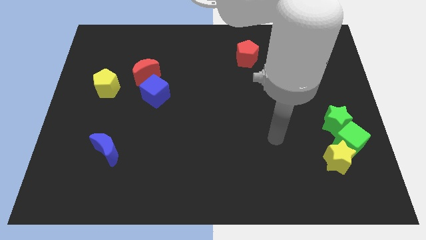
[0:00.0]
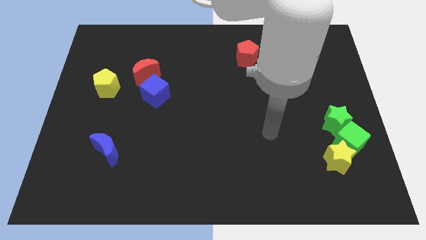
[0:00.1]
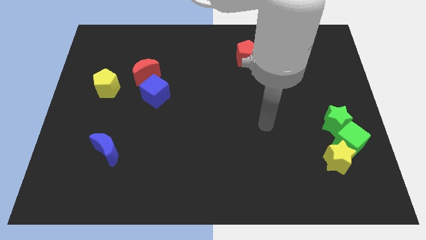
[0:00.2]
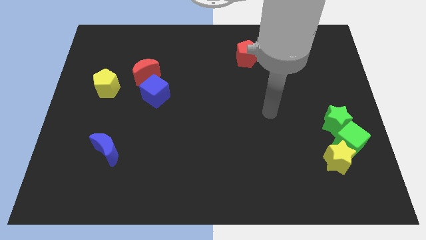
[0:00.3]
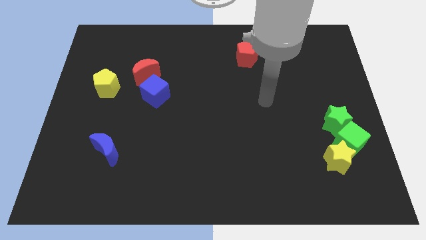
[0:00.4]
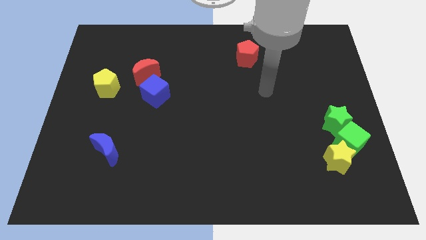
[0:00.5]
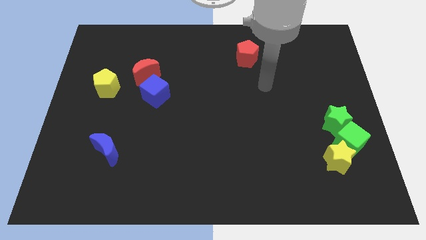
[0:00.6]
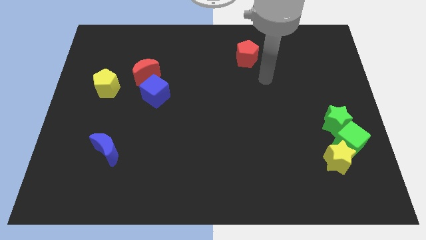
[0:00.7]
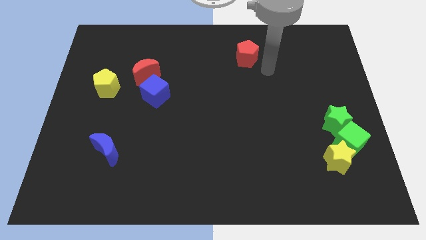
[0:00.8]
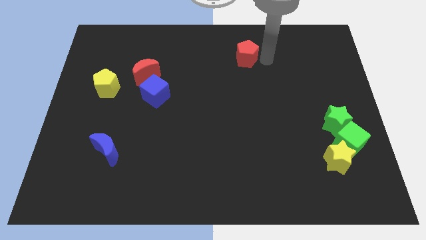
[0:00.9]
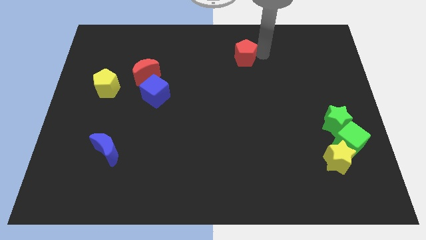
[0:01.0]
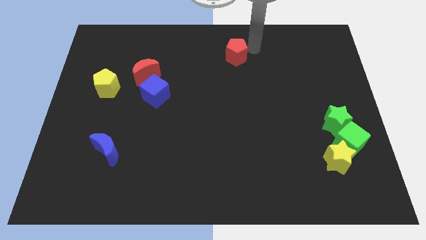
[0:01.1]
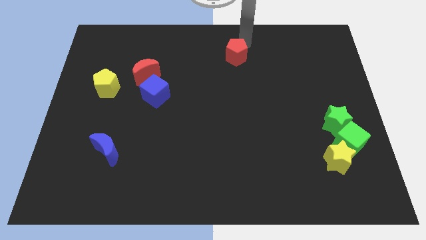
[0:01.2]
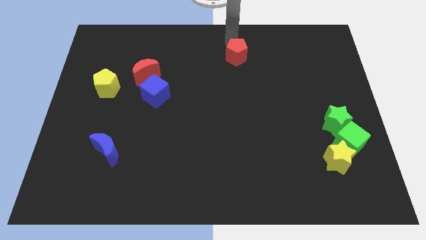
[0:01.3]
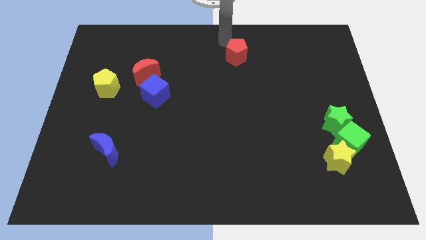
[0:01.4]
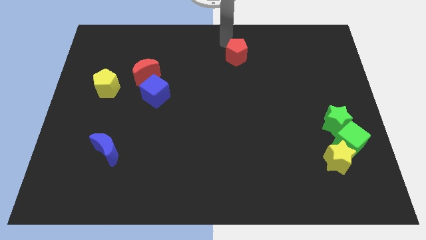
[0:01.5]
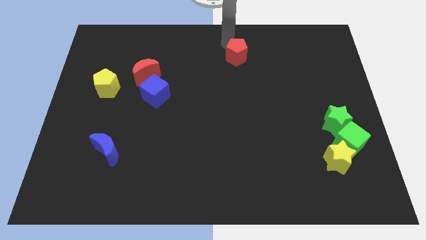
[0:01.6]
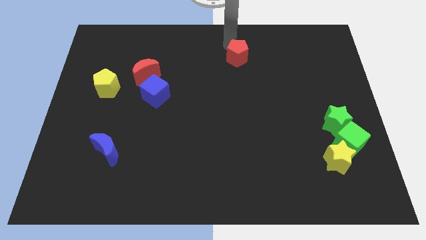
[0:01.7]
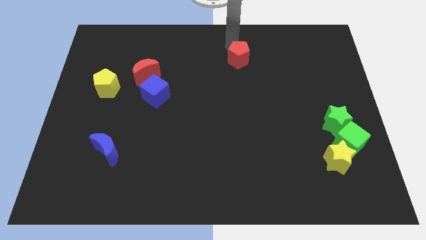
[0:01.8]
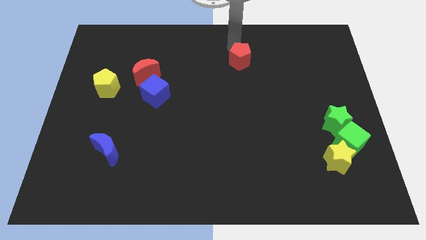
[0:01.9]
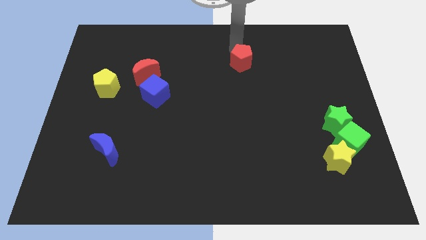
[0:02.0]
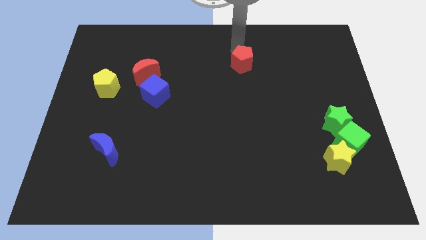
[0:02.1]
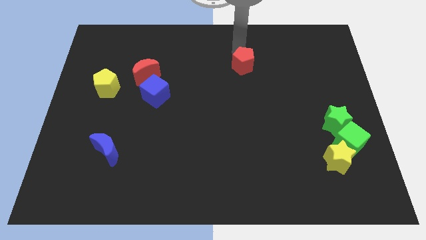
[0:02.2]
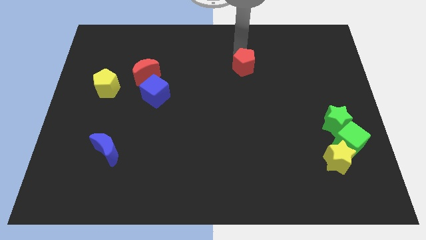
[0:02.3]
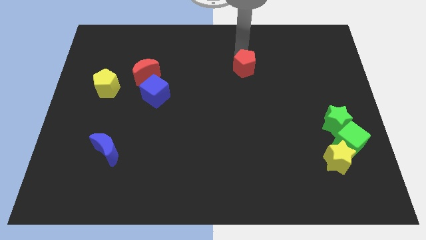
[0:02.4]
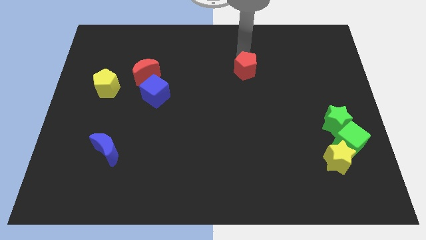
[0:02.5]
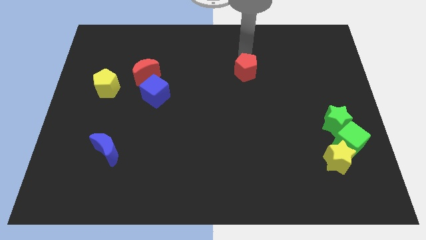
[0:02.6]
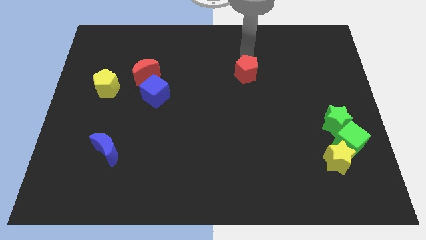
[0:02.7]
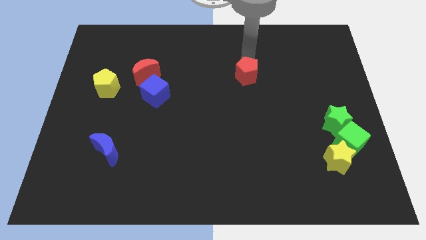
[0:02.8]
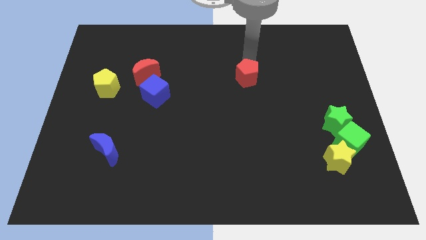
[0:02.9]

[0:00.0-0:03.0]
move the red pentagon downwards a bit

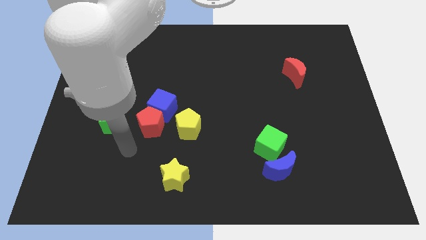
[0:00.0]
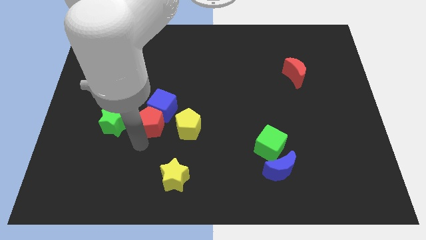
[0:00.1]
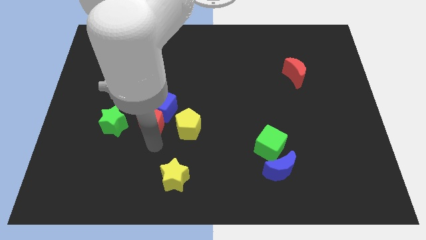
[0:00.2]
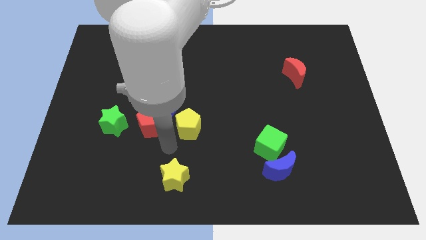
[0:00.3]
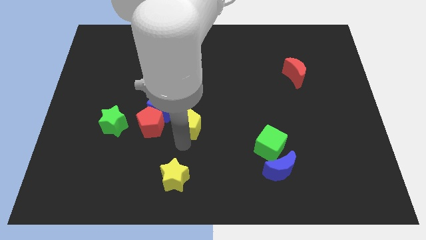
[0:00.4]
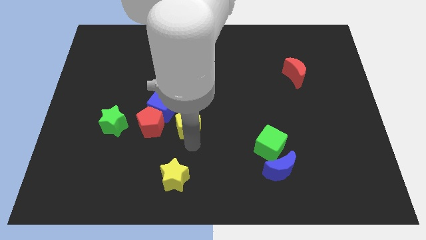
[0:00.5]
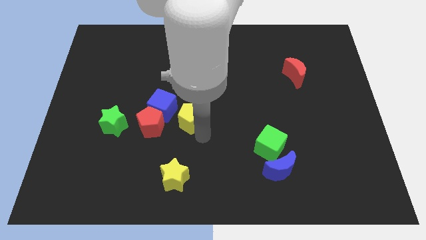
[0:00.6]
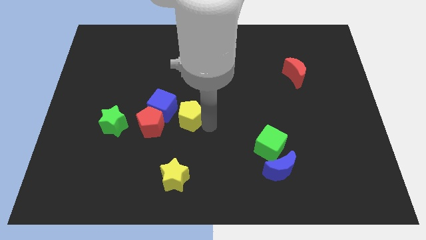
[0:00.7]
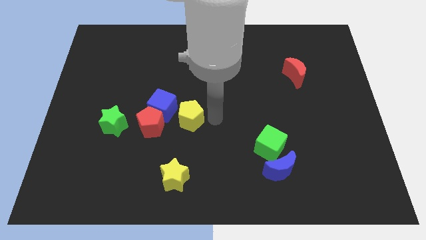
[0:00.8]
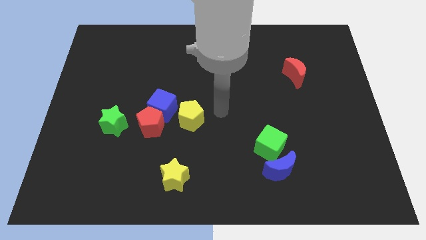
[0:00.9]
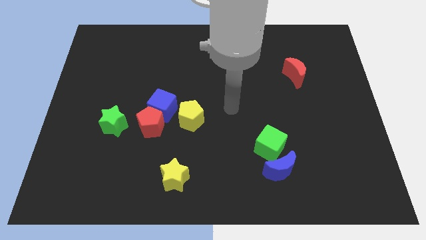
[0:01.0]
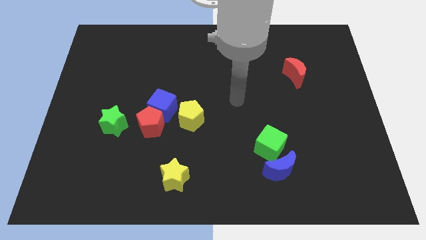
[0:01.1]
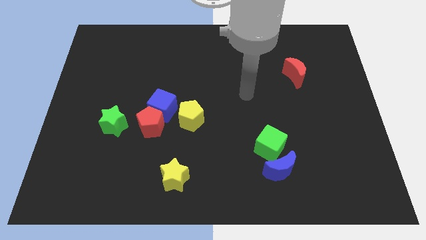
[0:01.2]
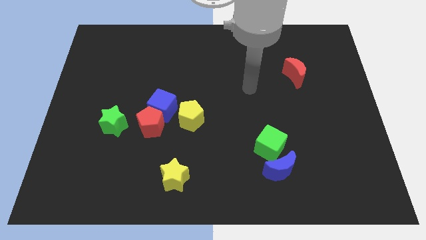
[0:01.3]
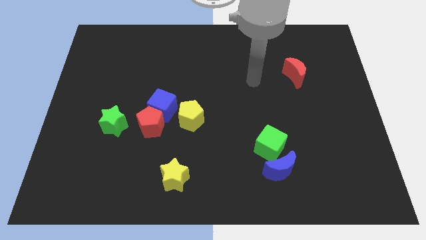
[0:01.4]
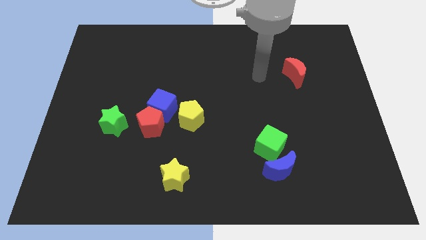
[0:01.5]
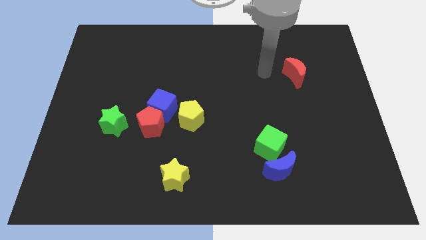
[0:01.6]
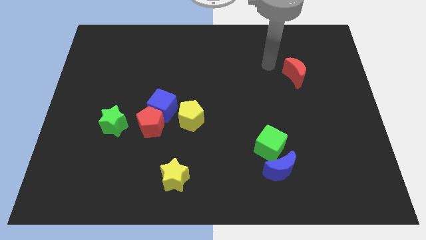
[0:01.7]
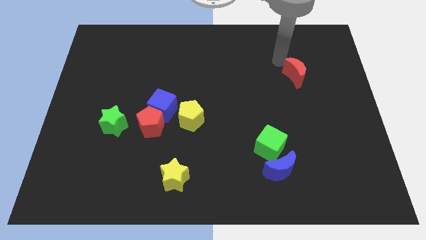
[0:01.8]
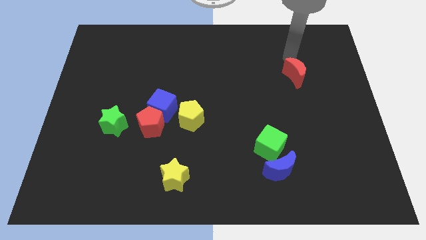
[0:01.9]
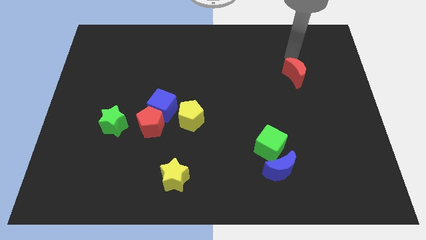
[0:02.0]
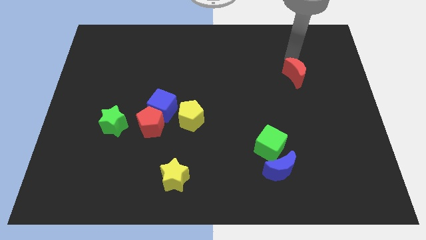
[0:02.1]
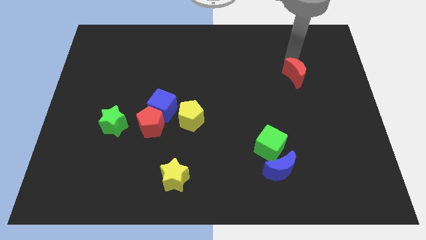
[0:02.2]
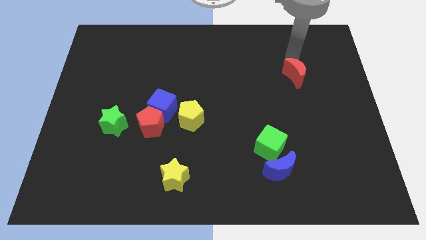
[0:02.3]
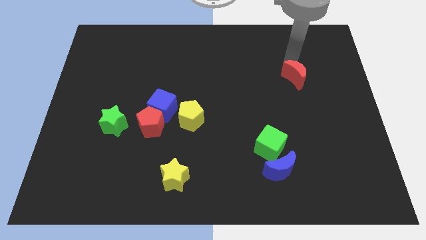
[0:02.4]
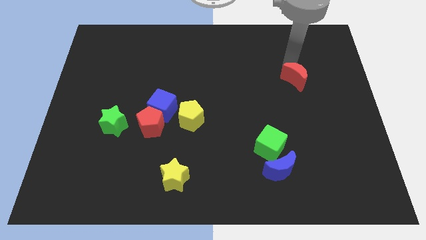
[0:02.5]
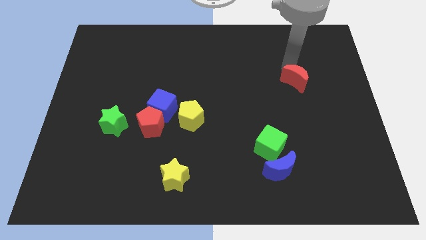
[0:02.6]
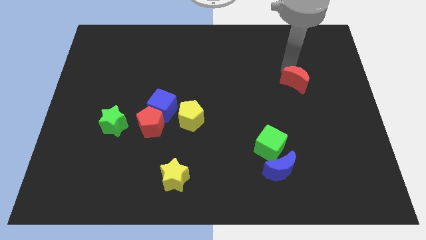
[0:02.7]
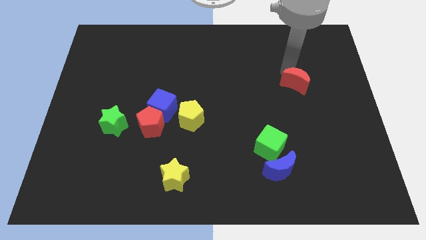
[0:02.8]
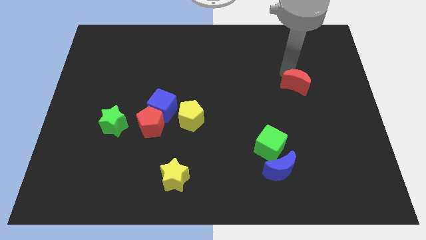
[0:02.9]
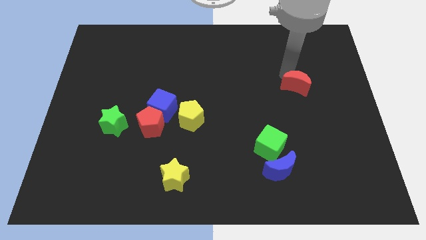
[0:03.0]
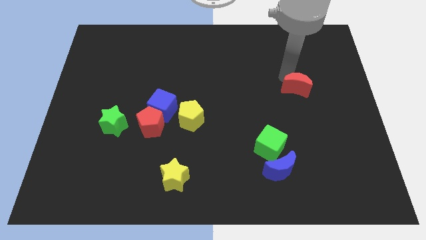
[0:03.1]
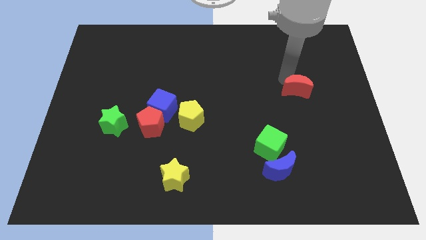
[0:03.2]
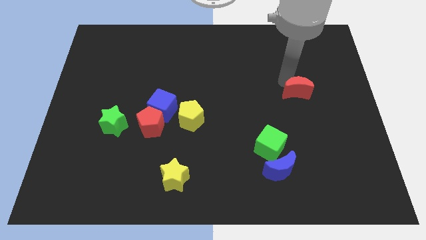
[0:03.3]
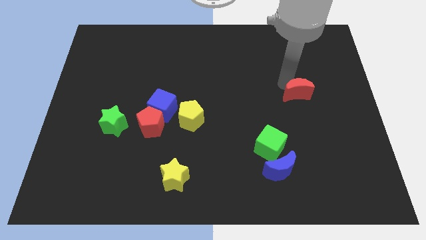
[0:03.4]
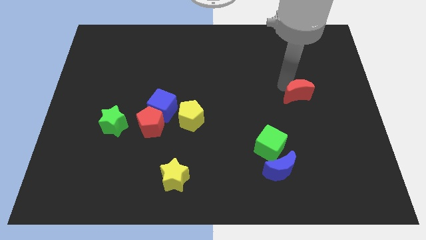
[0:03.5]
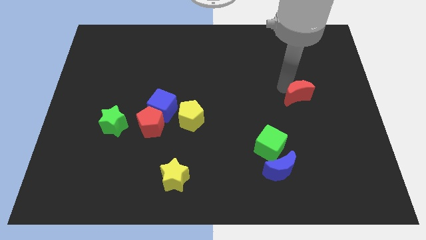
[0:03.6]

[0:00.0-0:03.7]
slide the red moon down a little bit

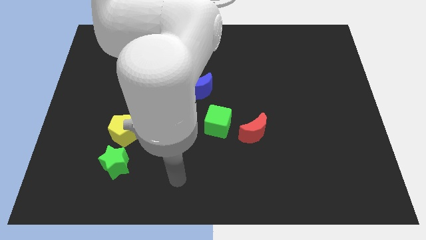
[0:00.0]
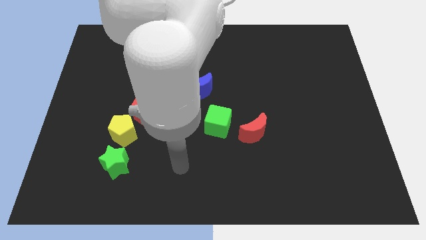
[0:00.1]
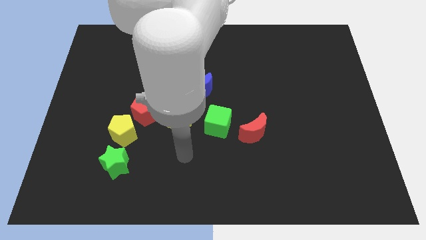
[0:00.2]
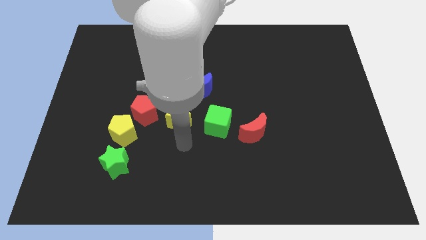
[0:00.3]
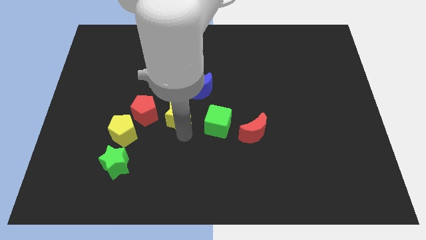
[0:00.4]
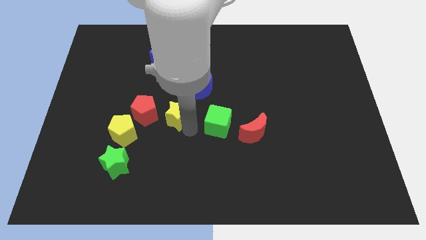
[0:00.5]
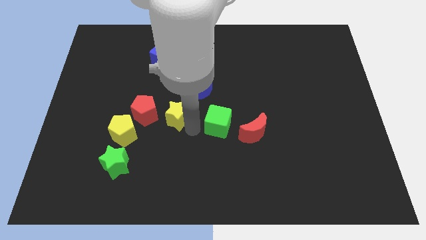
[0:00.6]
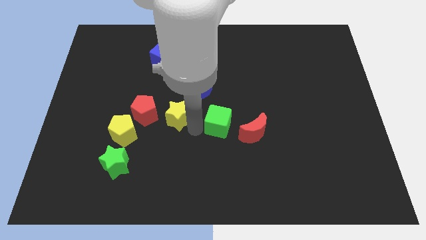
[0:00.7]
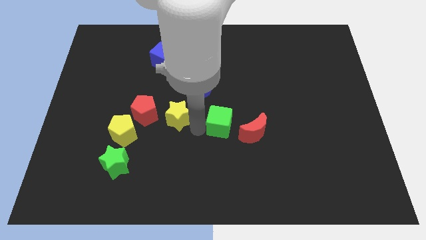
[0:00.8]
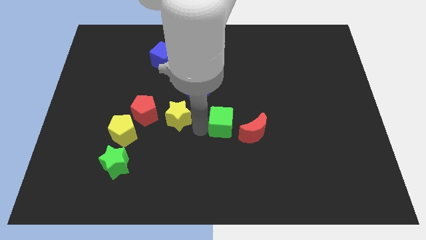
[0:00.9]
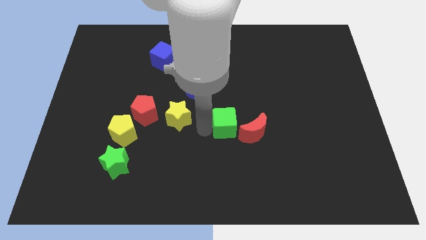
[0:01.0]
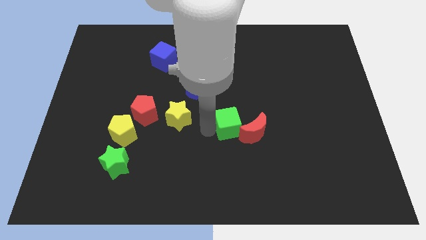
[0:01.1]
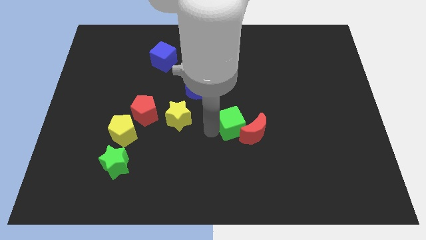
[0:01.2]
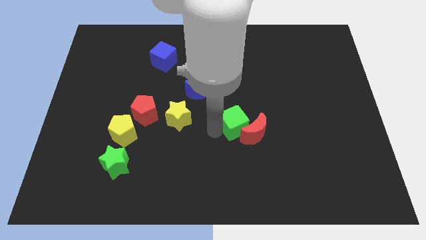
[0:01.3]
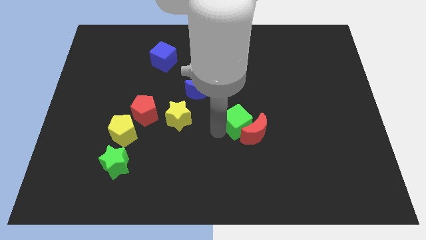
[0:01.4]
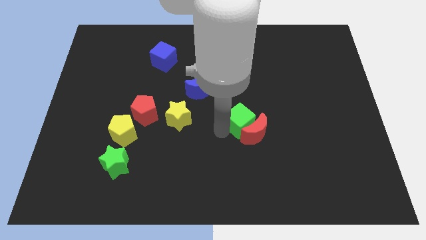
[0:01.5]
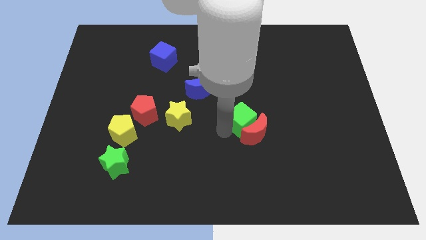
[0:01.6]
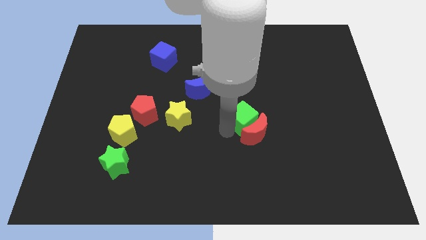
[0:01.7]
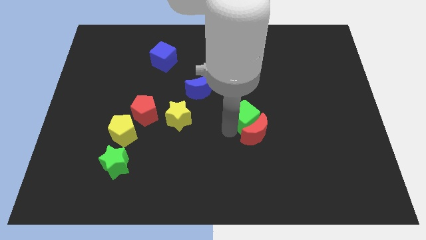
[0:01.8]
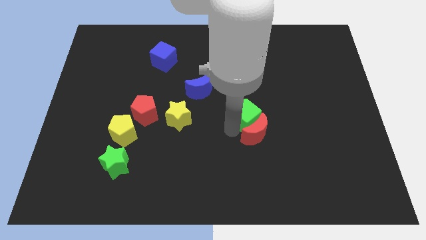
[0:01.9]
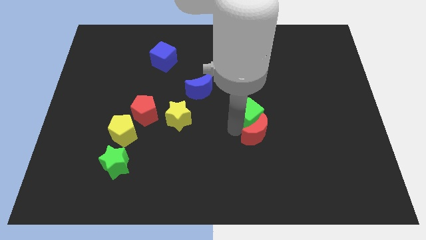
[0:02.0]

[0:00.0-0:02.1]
slightly slide the green cube right
